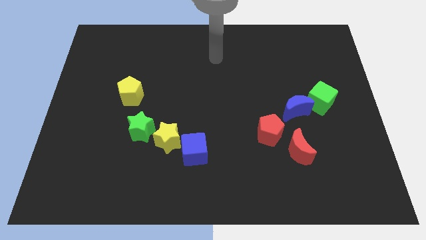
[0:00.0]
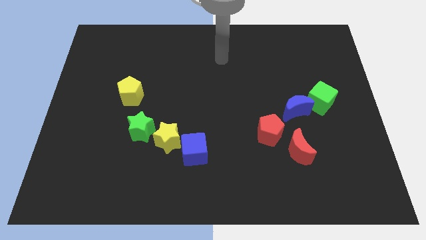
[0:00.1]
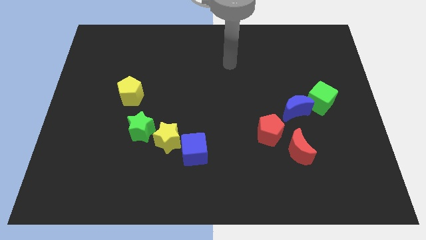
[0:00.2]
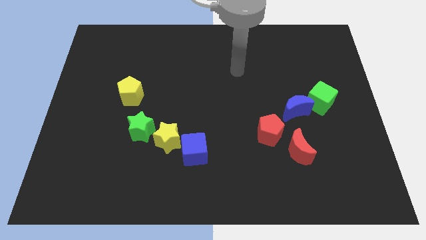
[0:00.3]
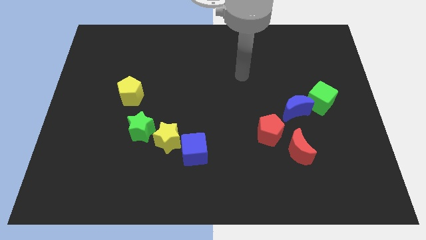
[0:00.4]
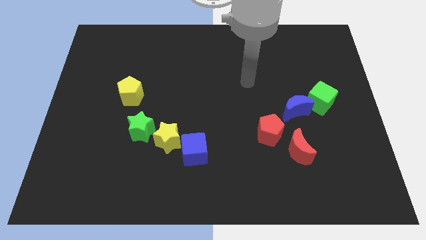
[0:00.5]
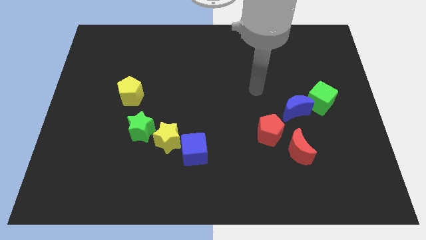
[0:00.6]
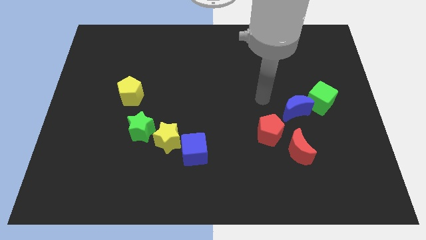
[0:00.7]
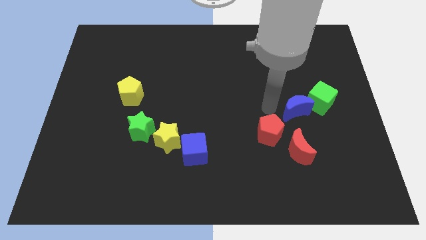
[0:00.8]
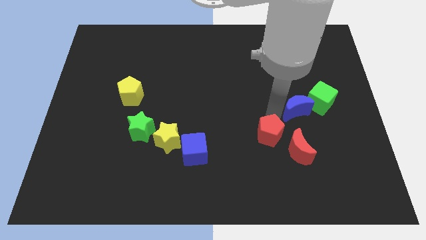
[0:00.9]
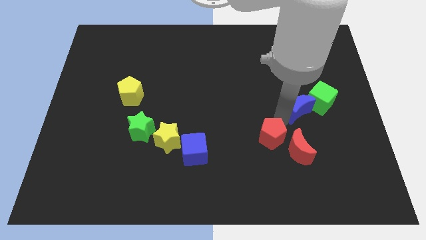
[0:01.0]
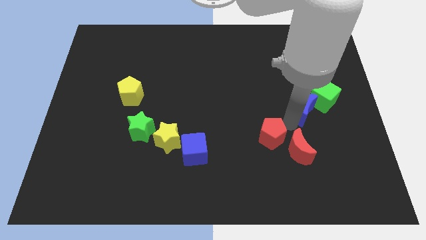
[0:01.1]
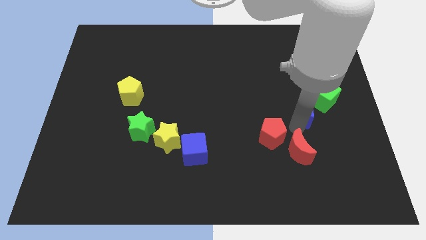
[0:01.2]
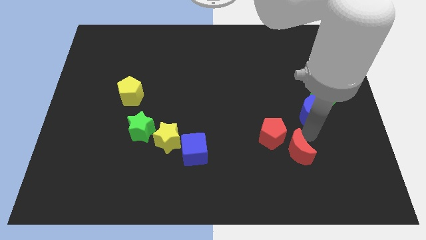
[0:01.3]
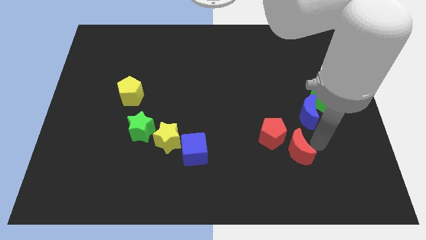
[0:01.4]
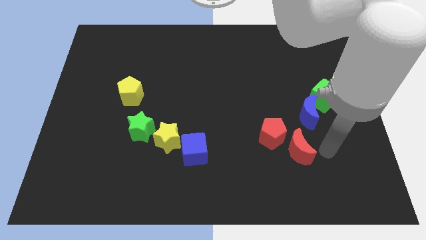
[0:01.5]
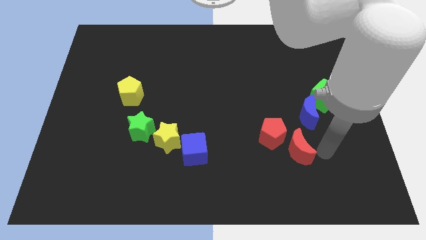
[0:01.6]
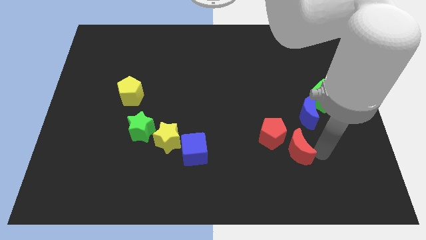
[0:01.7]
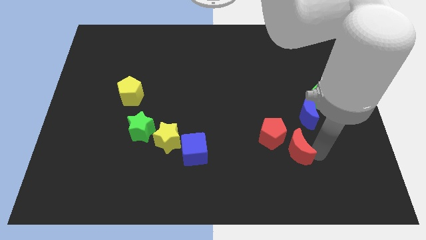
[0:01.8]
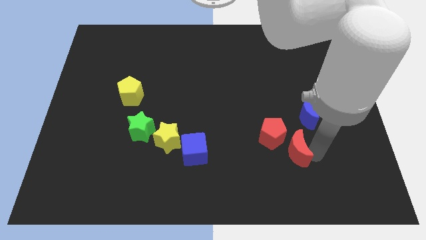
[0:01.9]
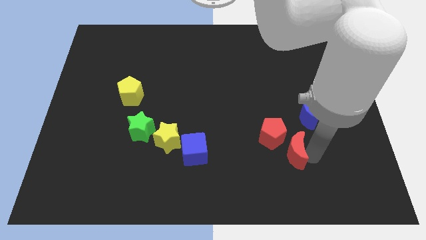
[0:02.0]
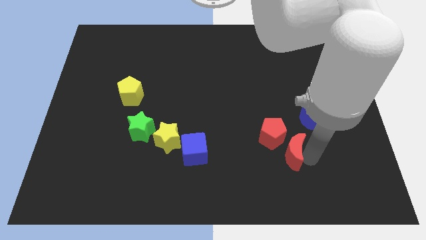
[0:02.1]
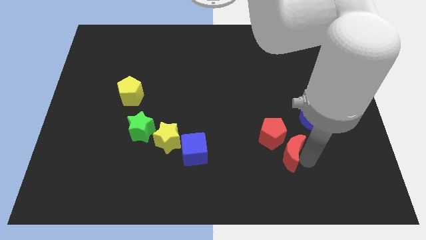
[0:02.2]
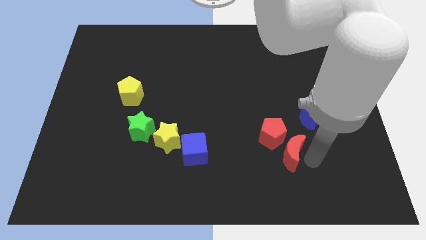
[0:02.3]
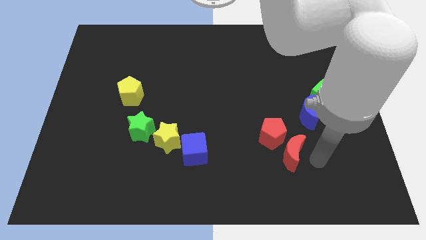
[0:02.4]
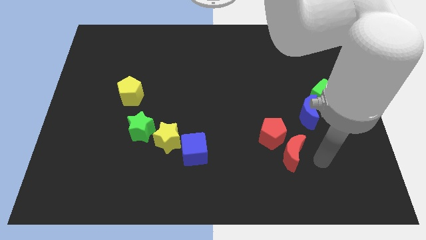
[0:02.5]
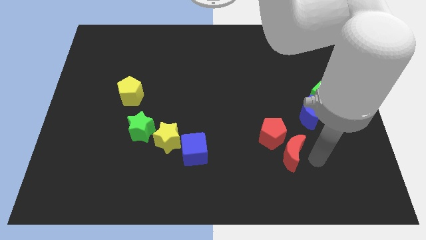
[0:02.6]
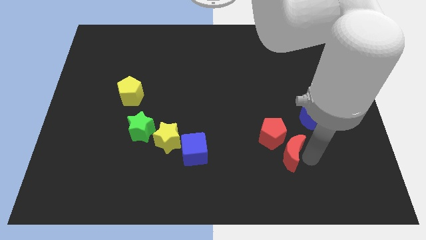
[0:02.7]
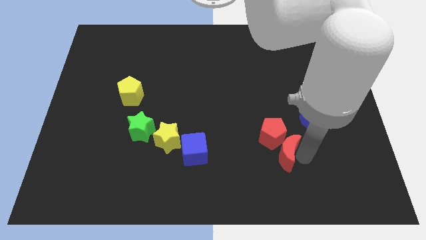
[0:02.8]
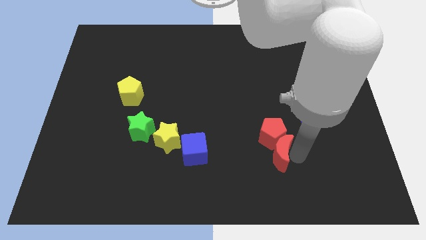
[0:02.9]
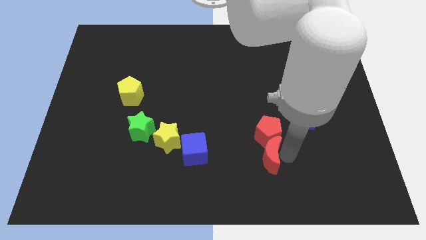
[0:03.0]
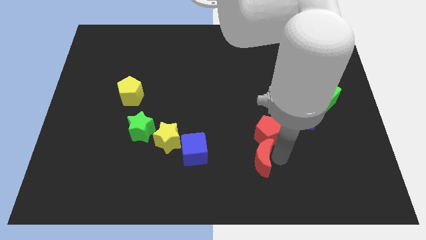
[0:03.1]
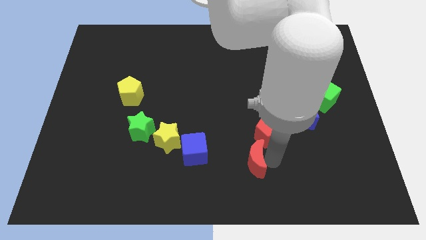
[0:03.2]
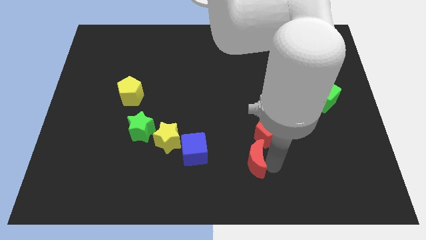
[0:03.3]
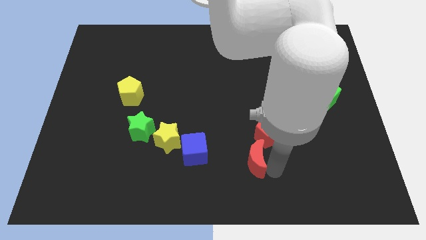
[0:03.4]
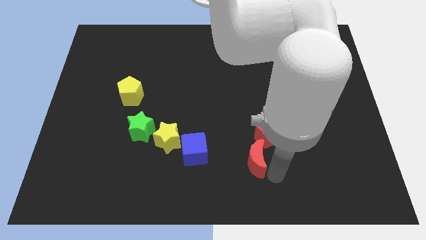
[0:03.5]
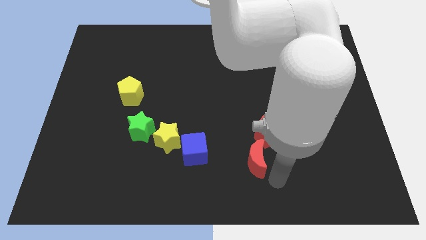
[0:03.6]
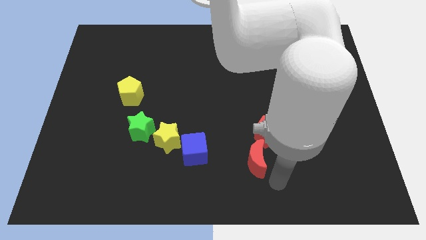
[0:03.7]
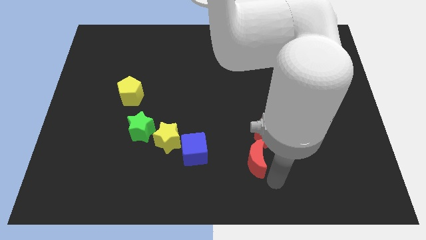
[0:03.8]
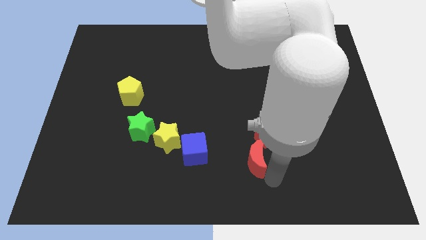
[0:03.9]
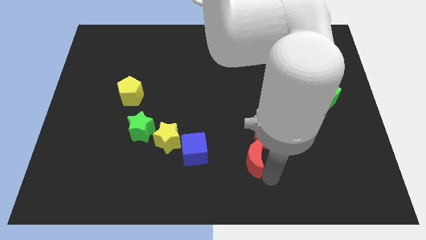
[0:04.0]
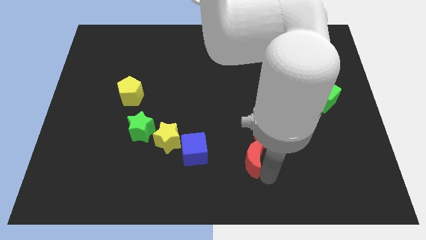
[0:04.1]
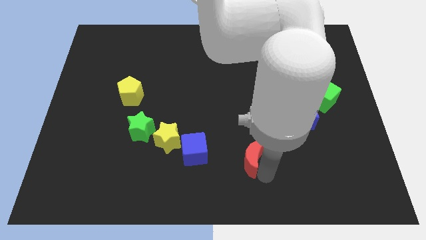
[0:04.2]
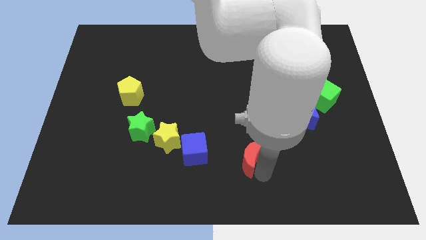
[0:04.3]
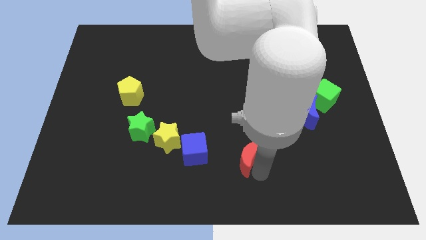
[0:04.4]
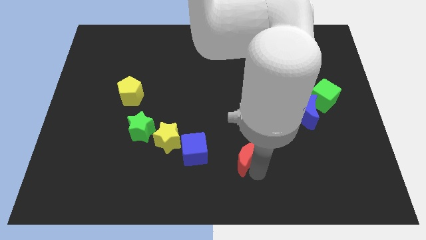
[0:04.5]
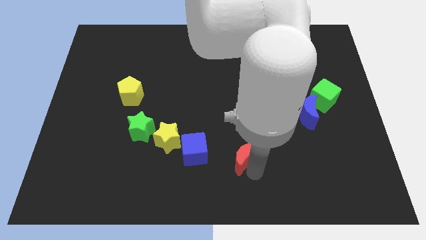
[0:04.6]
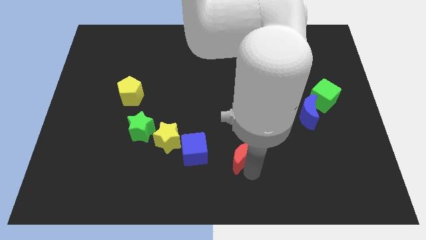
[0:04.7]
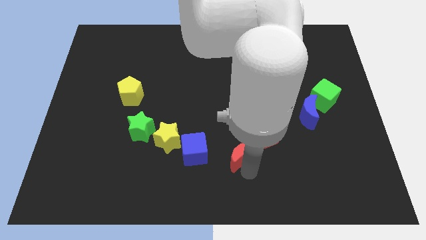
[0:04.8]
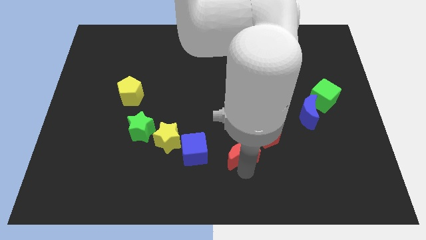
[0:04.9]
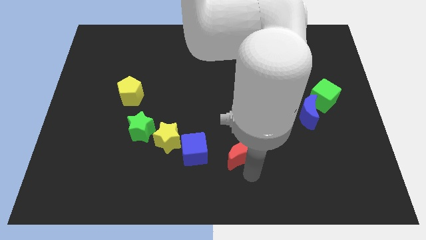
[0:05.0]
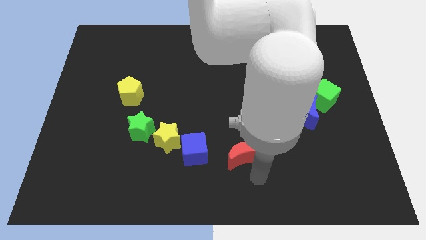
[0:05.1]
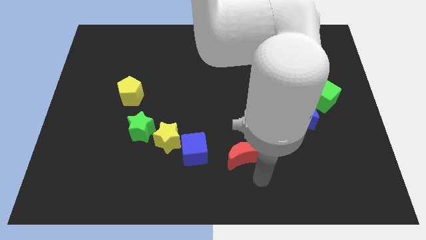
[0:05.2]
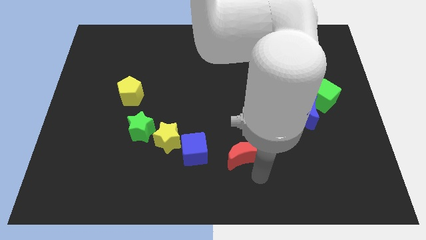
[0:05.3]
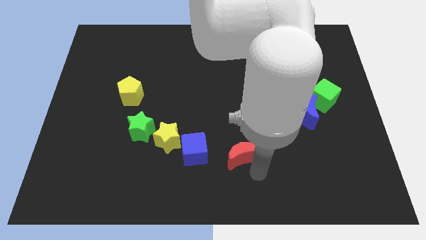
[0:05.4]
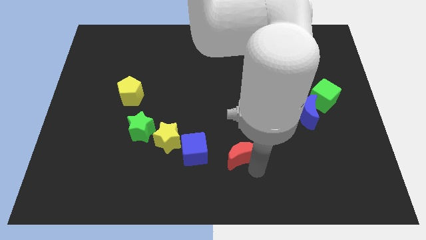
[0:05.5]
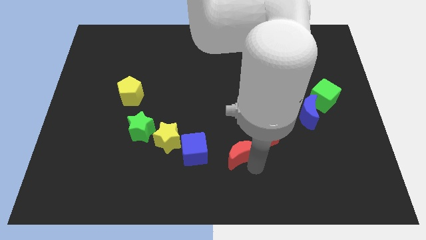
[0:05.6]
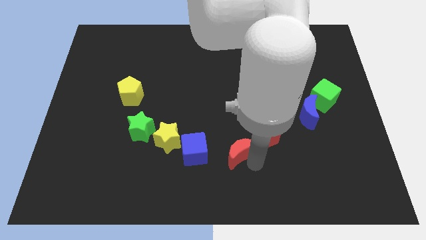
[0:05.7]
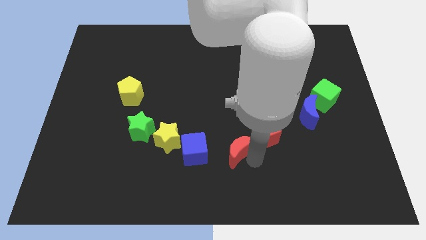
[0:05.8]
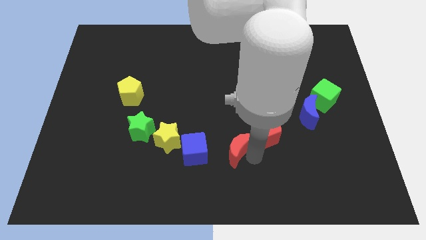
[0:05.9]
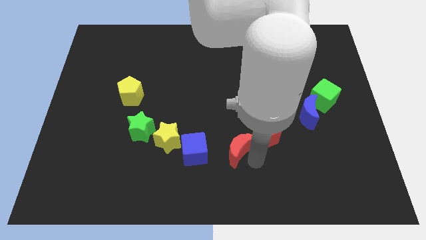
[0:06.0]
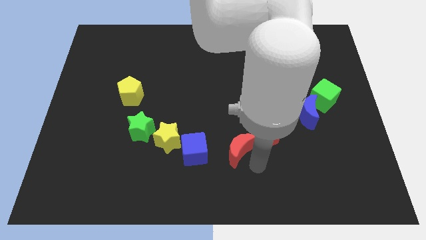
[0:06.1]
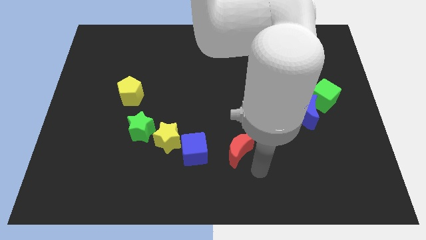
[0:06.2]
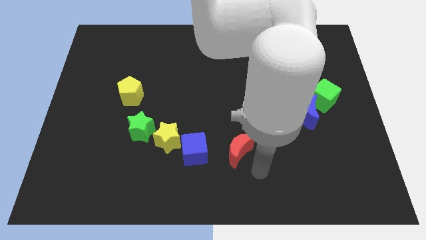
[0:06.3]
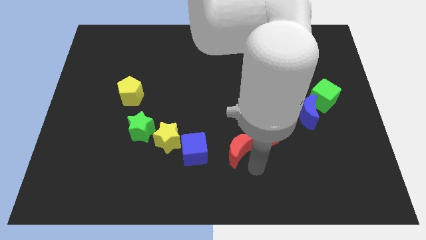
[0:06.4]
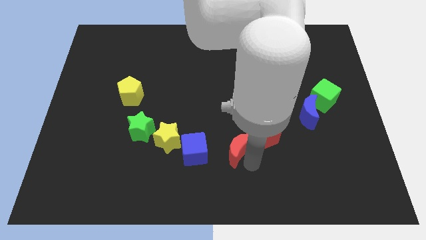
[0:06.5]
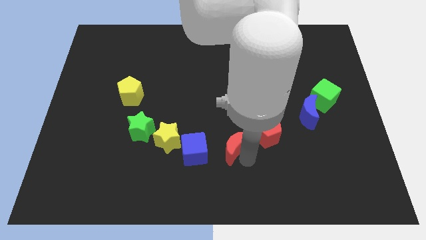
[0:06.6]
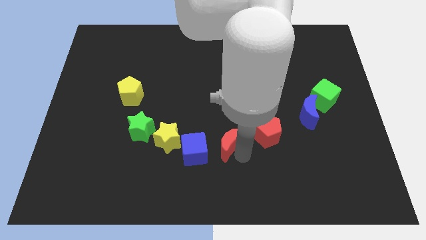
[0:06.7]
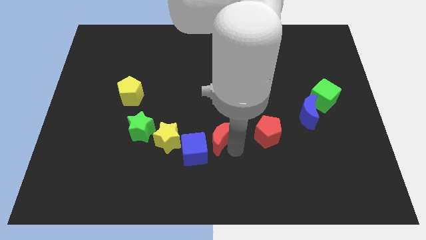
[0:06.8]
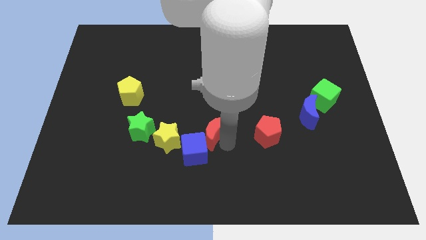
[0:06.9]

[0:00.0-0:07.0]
move the red moon to the top side of the blue cube

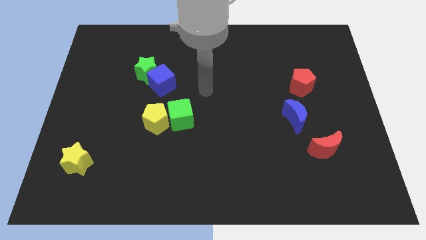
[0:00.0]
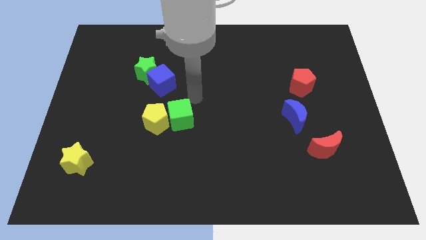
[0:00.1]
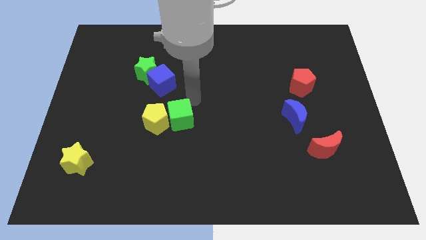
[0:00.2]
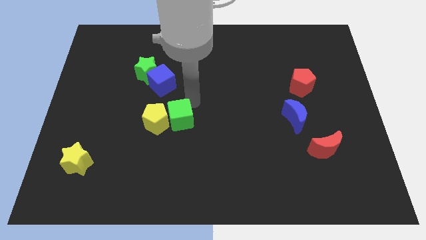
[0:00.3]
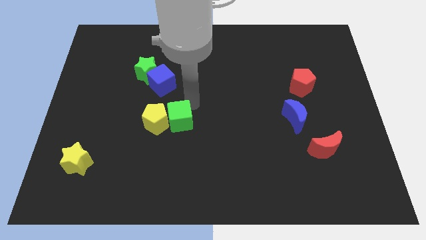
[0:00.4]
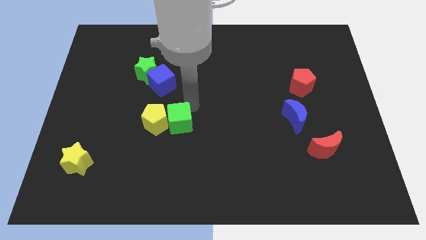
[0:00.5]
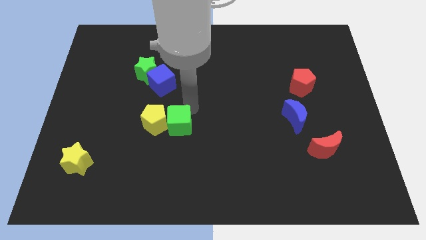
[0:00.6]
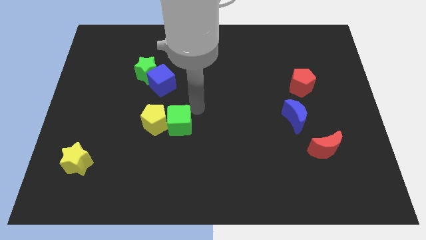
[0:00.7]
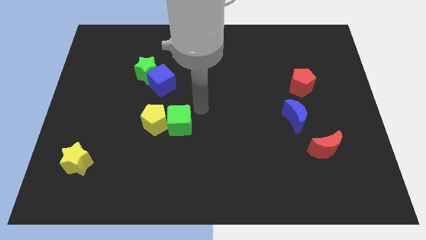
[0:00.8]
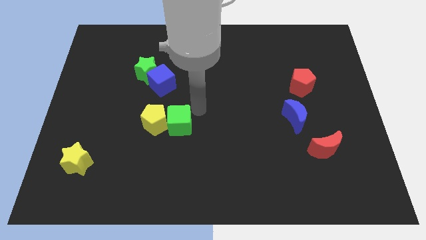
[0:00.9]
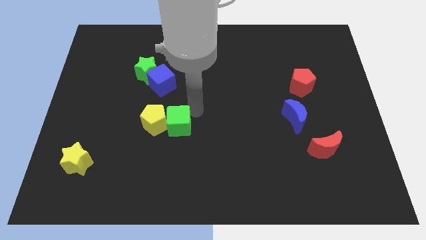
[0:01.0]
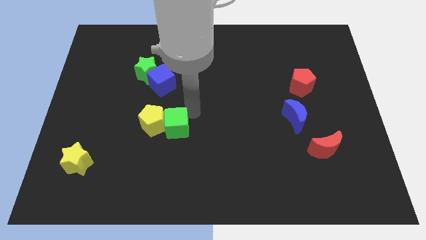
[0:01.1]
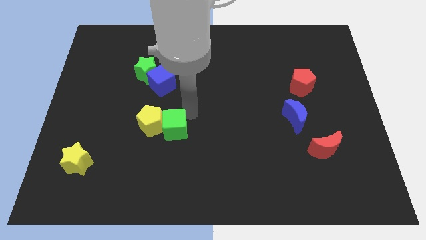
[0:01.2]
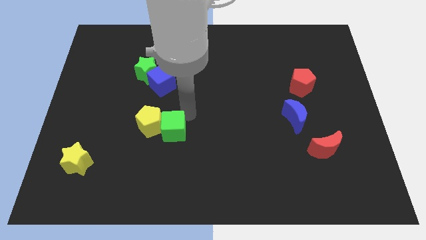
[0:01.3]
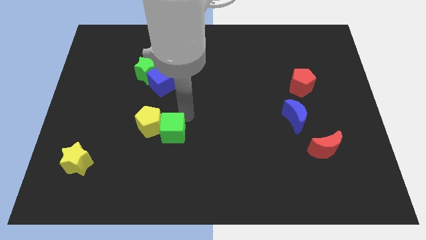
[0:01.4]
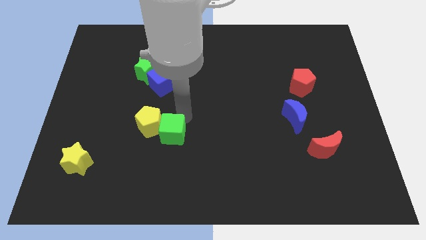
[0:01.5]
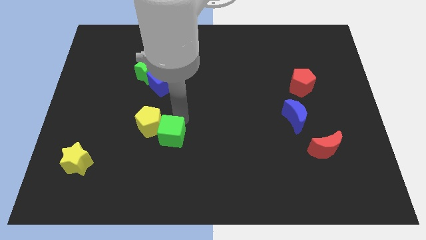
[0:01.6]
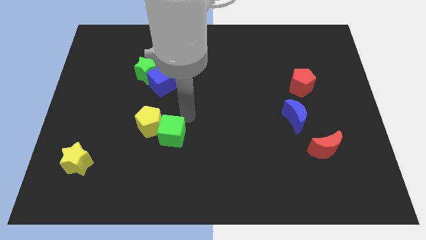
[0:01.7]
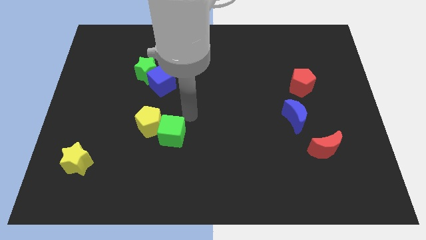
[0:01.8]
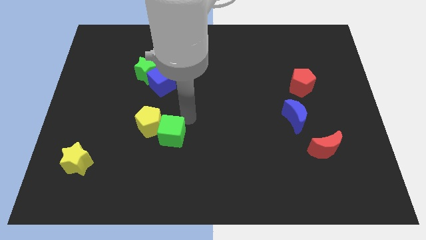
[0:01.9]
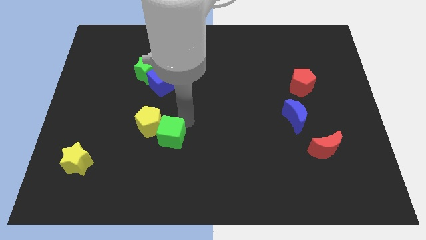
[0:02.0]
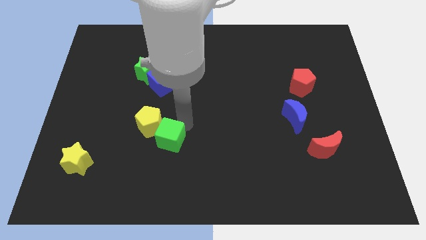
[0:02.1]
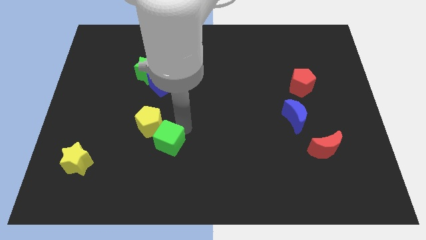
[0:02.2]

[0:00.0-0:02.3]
put the green cube to the bottom of the yellow pentagon
